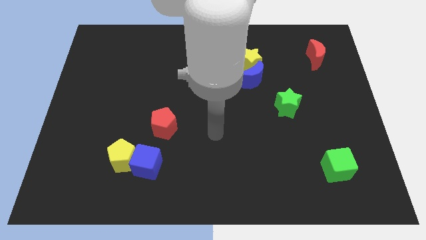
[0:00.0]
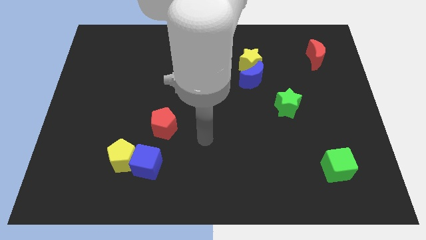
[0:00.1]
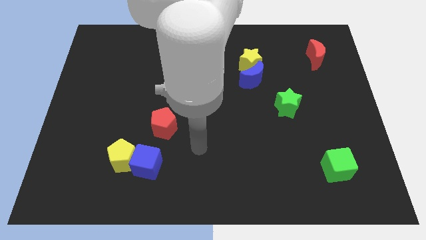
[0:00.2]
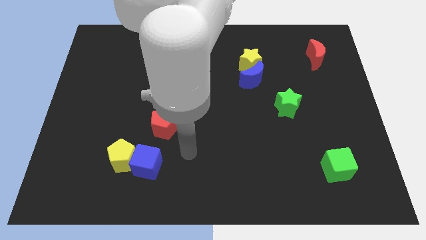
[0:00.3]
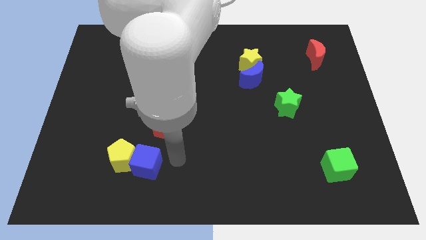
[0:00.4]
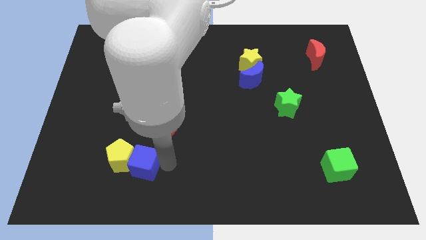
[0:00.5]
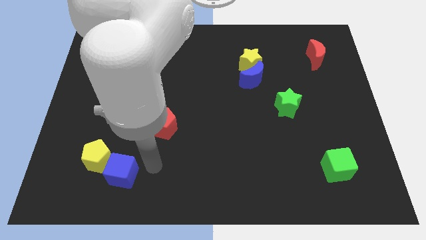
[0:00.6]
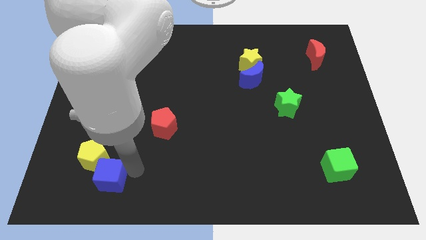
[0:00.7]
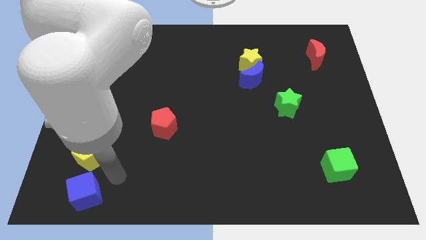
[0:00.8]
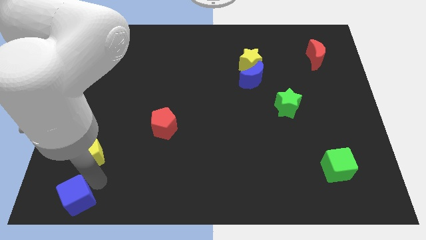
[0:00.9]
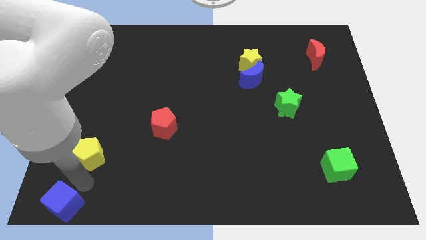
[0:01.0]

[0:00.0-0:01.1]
separate the yellow pentagon from the blue cube

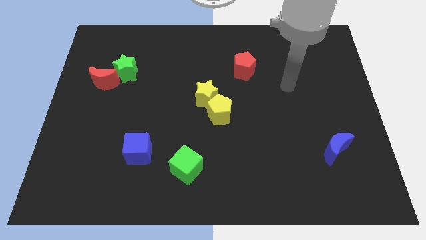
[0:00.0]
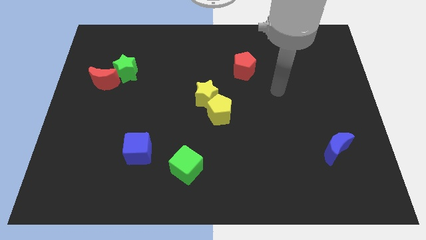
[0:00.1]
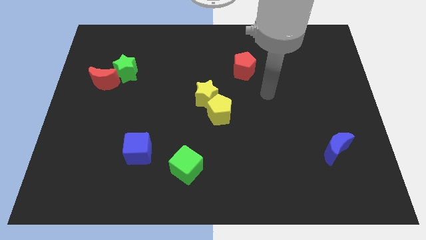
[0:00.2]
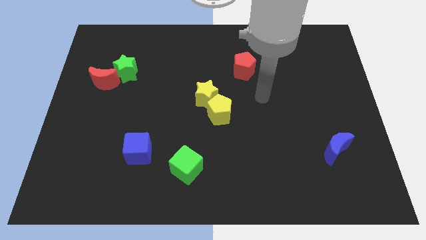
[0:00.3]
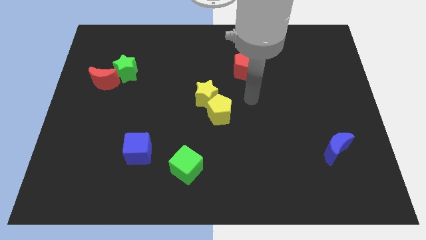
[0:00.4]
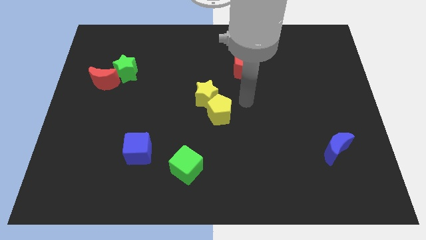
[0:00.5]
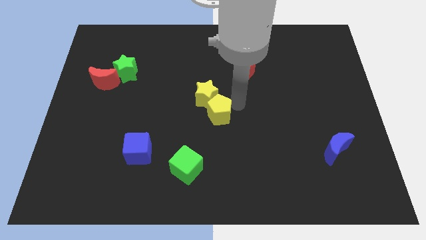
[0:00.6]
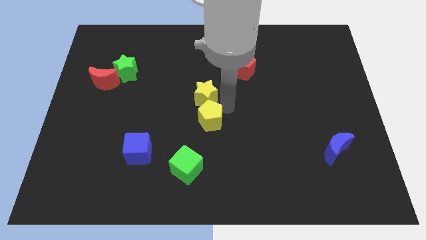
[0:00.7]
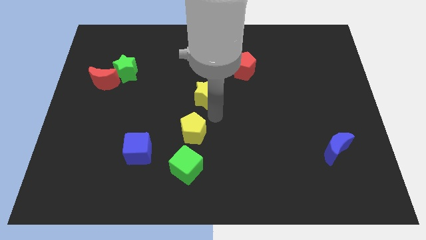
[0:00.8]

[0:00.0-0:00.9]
pull the yellow star apart from the yellow pentagon

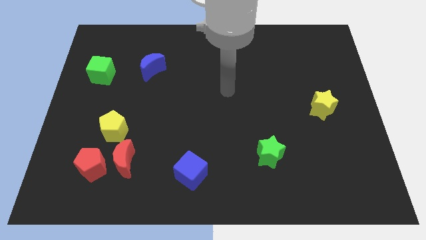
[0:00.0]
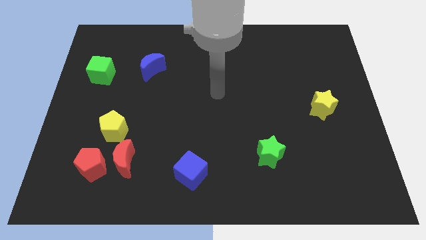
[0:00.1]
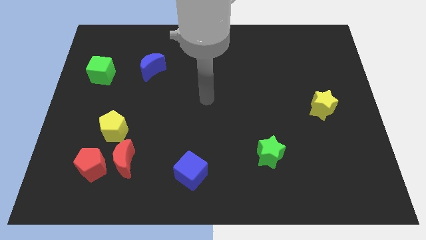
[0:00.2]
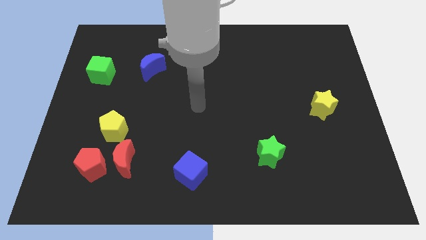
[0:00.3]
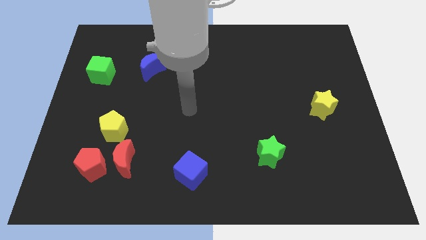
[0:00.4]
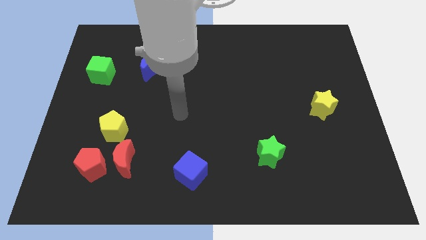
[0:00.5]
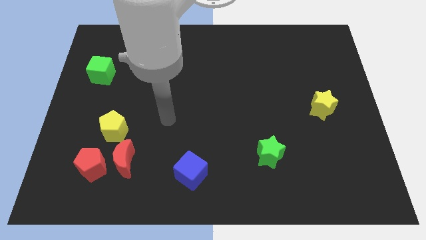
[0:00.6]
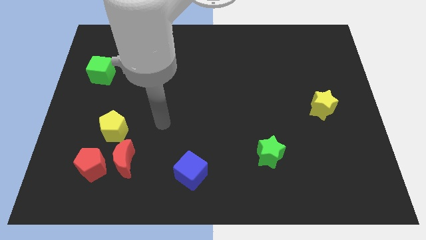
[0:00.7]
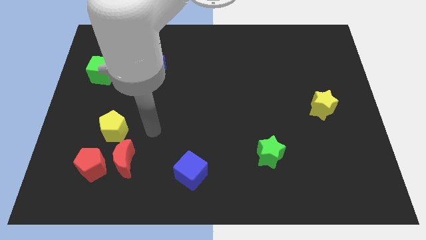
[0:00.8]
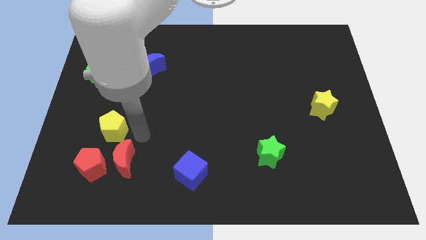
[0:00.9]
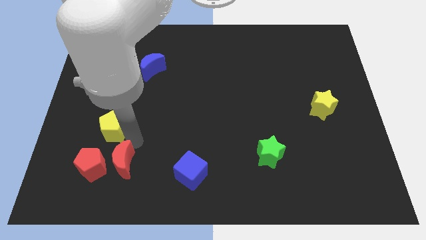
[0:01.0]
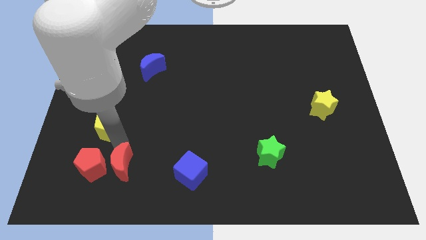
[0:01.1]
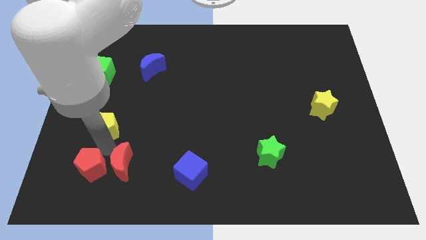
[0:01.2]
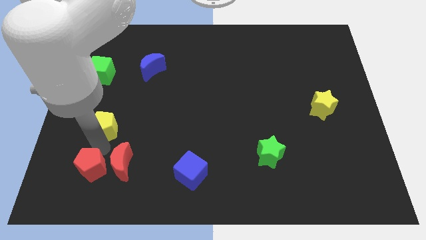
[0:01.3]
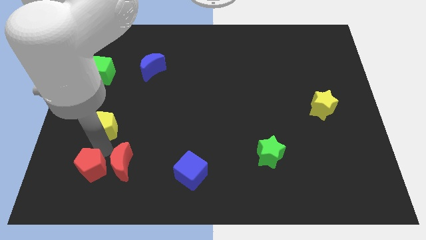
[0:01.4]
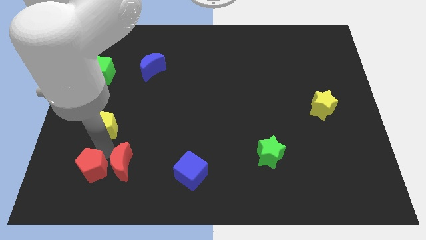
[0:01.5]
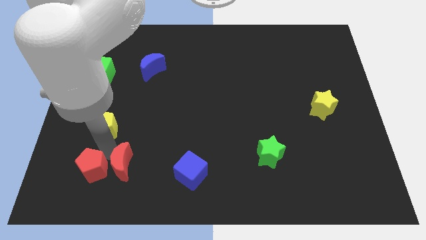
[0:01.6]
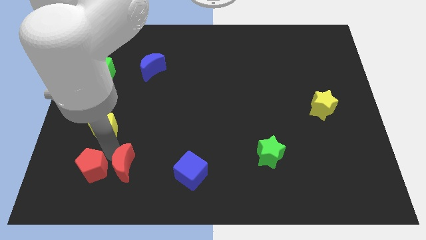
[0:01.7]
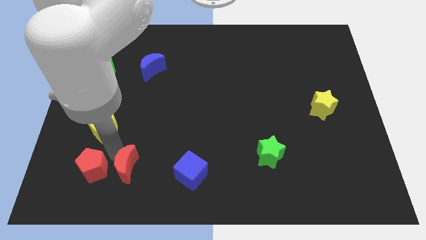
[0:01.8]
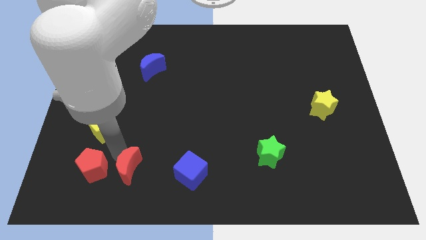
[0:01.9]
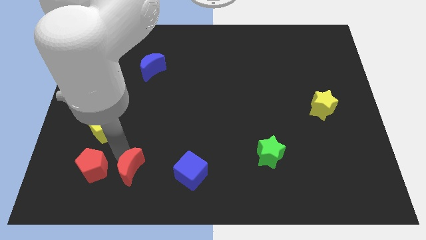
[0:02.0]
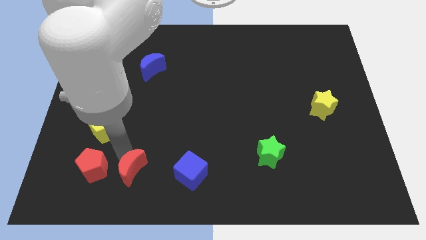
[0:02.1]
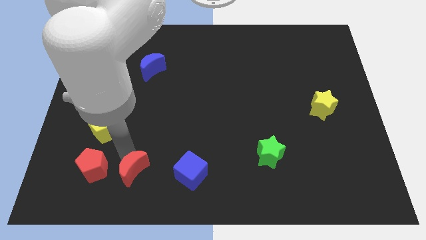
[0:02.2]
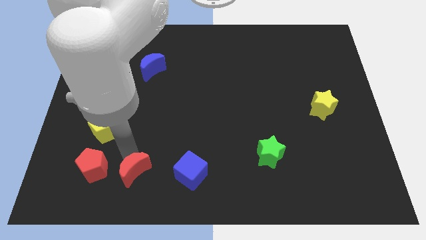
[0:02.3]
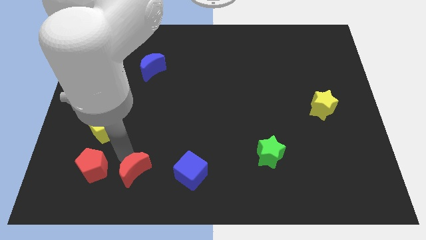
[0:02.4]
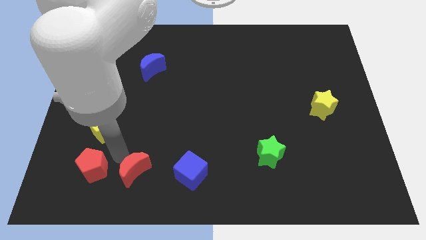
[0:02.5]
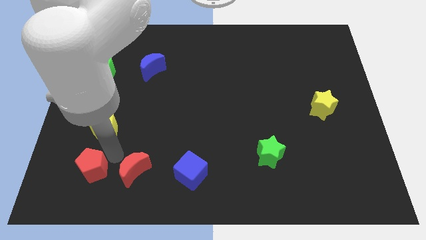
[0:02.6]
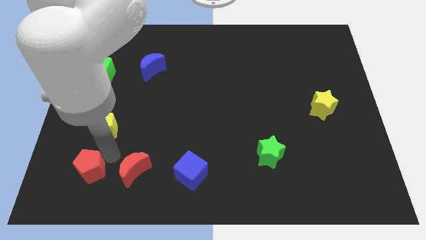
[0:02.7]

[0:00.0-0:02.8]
separate the red moon from the red pentagon and yellow pentagon

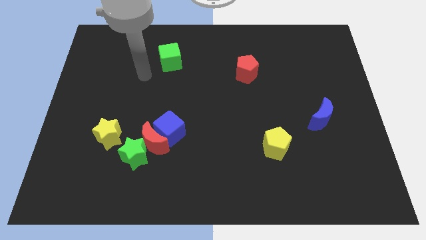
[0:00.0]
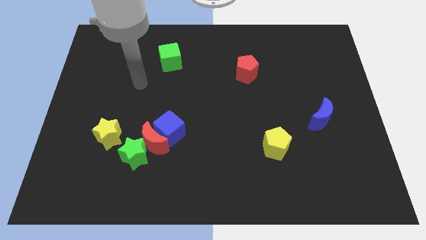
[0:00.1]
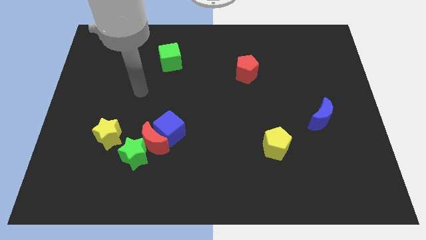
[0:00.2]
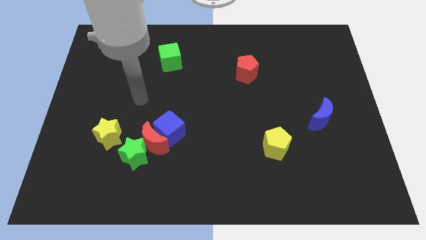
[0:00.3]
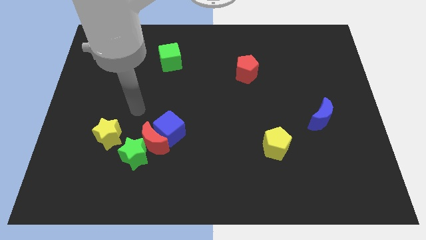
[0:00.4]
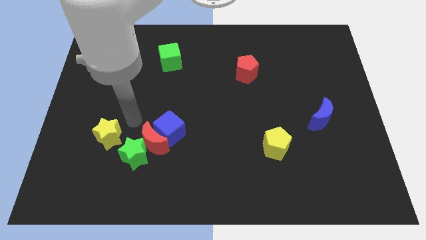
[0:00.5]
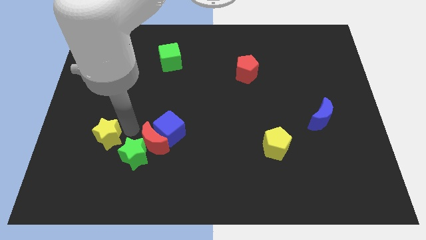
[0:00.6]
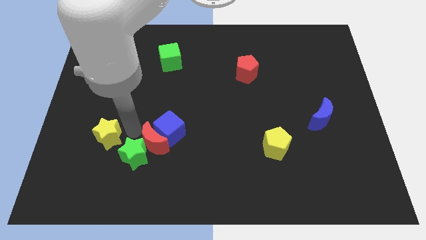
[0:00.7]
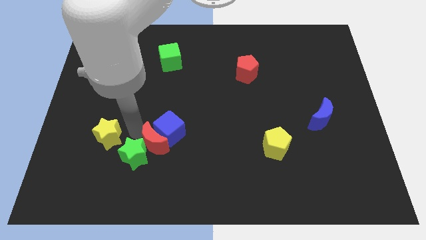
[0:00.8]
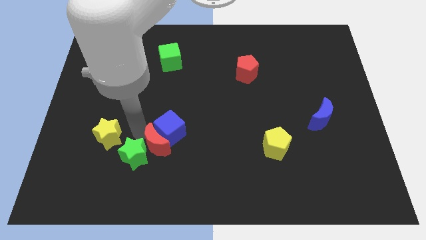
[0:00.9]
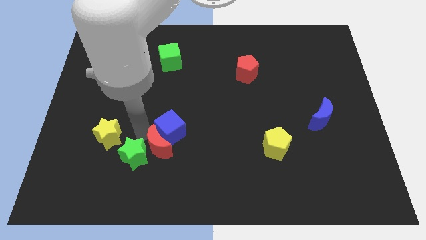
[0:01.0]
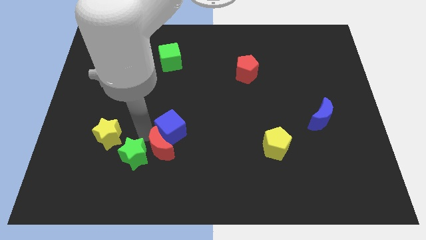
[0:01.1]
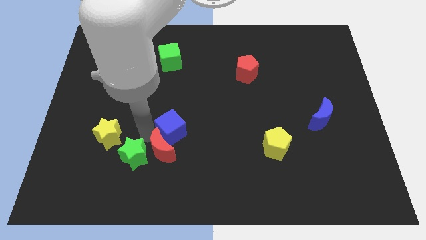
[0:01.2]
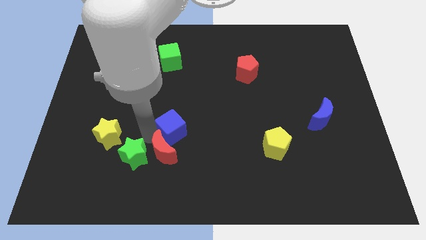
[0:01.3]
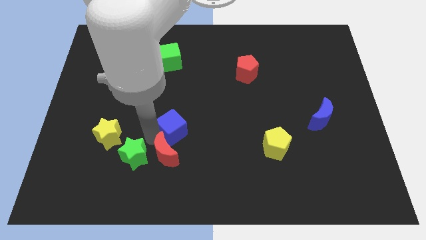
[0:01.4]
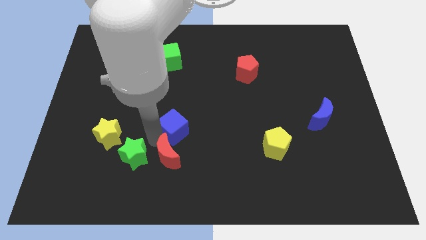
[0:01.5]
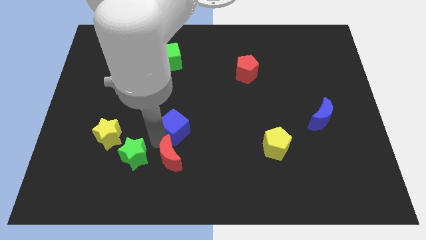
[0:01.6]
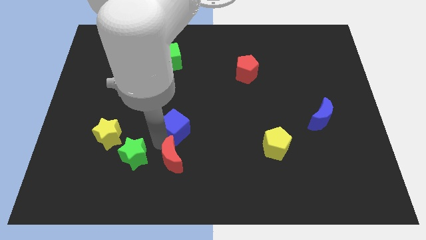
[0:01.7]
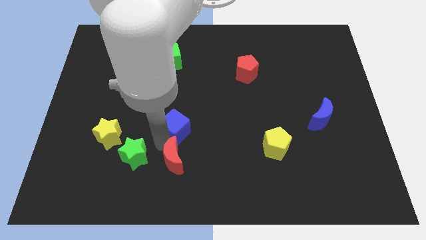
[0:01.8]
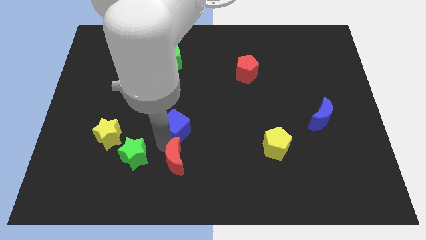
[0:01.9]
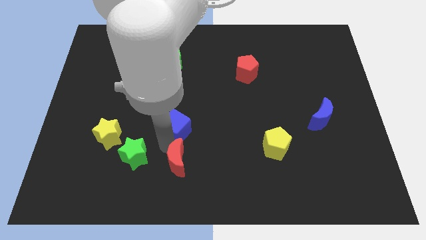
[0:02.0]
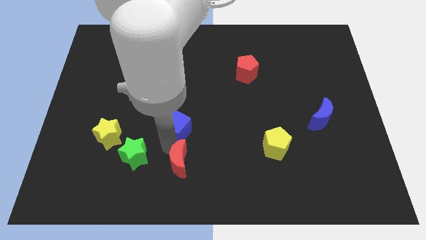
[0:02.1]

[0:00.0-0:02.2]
separate the red moon from the blue cube, green star, and yellow star

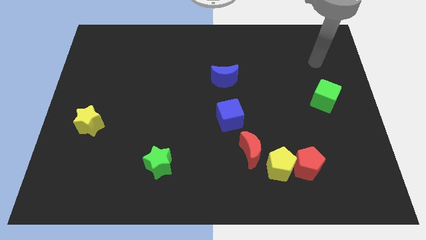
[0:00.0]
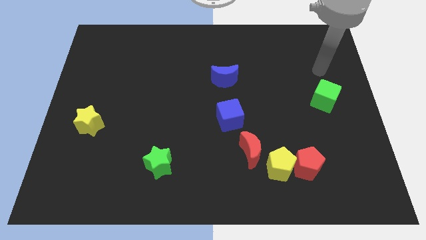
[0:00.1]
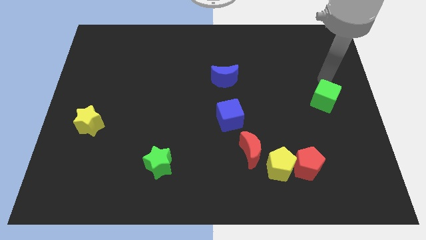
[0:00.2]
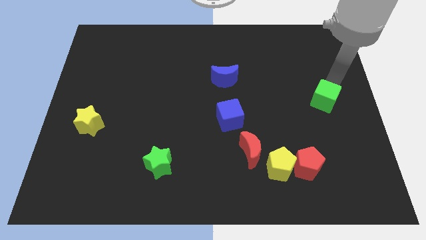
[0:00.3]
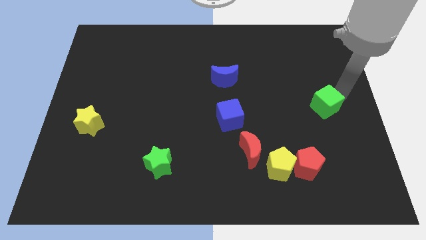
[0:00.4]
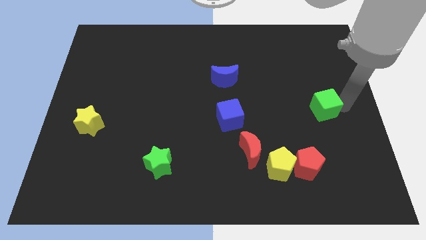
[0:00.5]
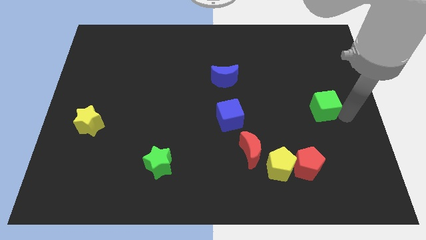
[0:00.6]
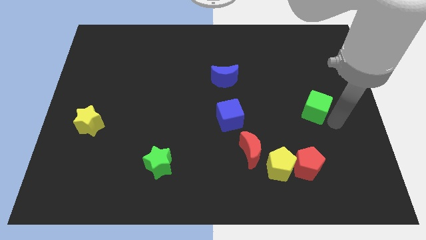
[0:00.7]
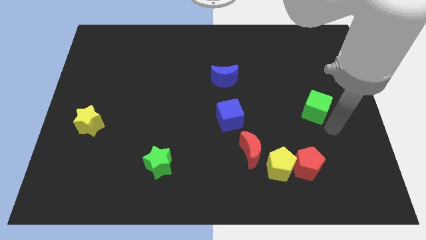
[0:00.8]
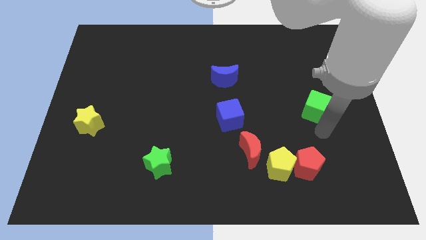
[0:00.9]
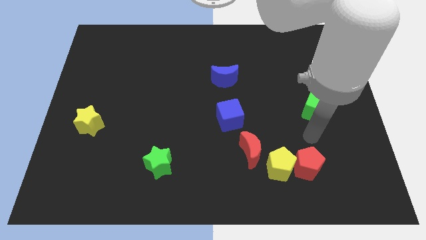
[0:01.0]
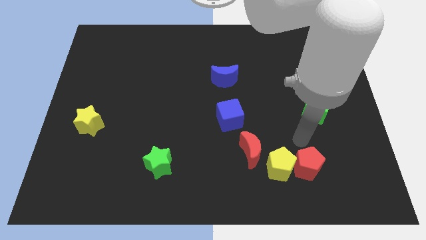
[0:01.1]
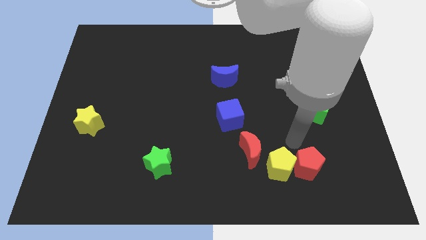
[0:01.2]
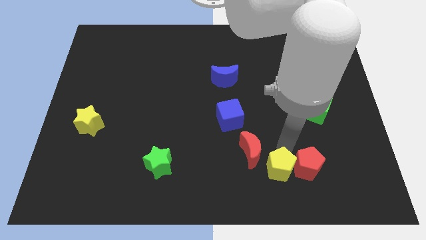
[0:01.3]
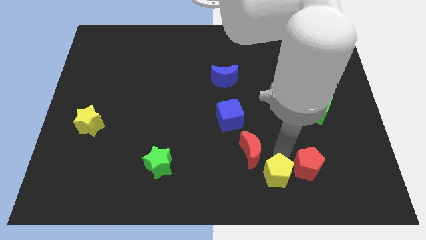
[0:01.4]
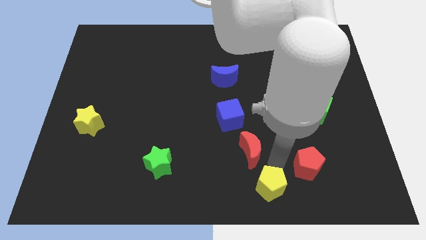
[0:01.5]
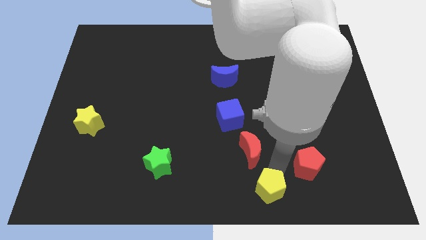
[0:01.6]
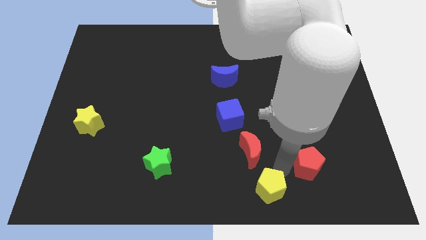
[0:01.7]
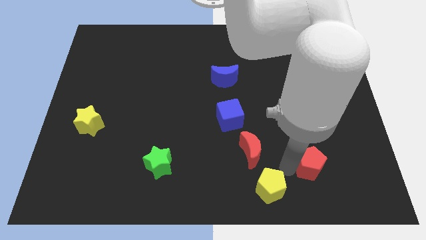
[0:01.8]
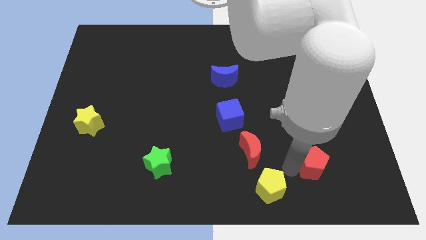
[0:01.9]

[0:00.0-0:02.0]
pull the red pentagon apart from the yellow pentagon

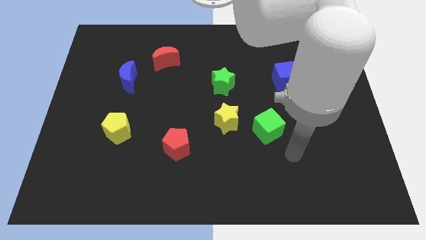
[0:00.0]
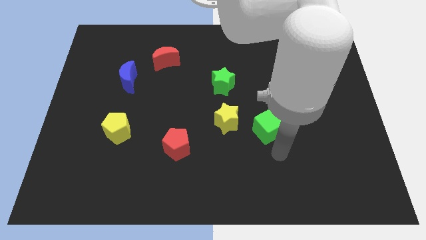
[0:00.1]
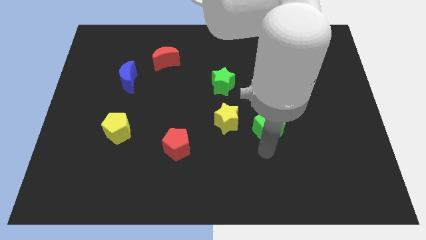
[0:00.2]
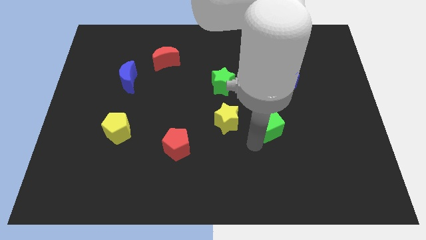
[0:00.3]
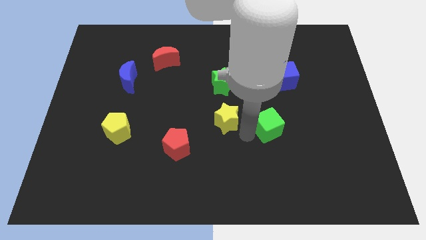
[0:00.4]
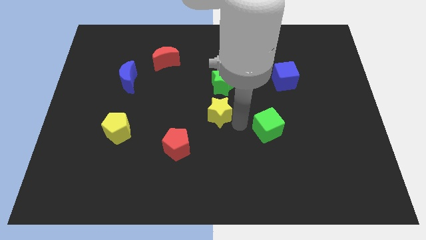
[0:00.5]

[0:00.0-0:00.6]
pull the green cube apart from the yellow star
